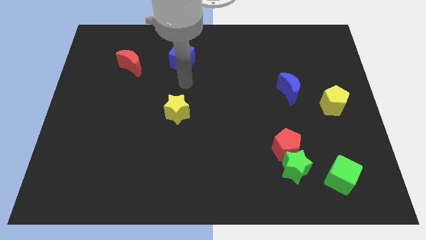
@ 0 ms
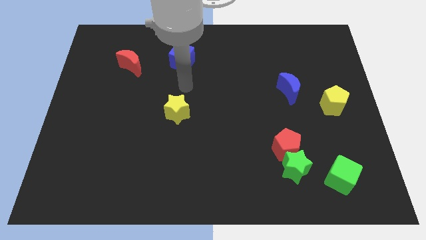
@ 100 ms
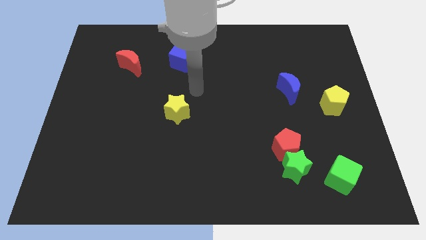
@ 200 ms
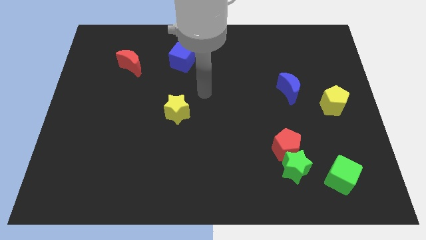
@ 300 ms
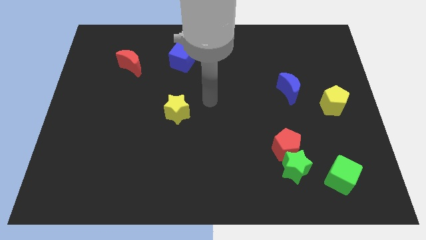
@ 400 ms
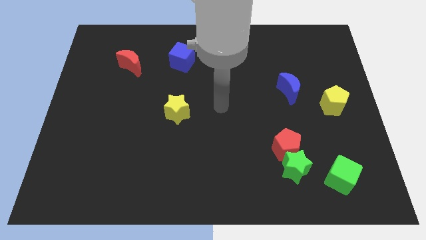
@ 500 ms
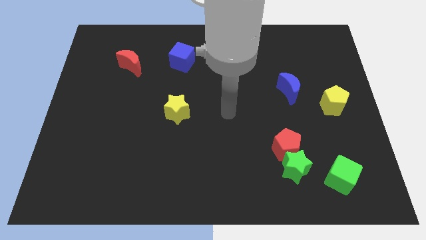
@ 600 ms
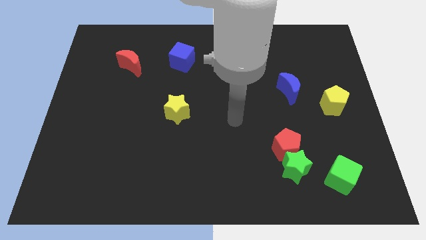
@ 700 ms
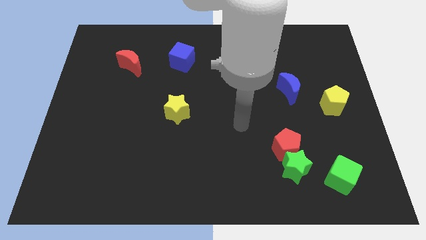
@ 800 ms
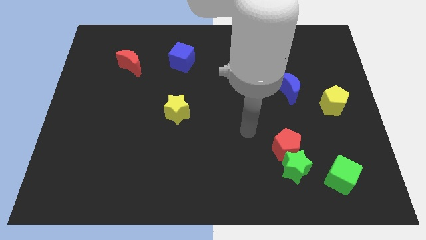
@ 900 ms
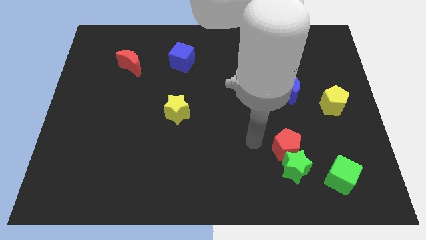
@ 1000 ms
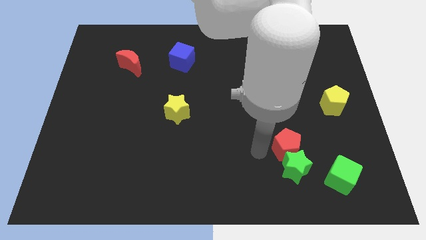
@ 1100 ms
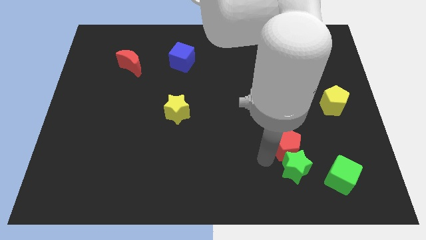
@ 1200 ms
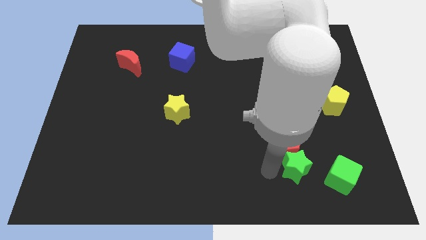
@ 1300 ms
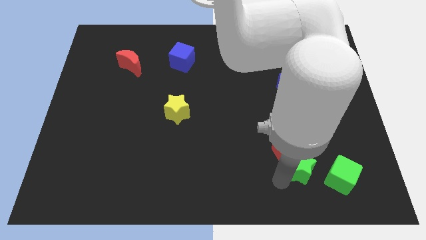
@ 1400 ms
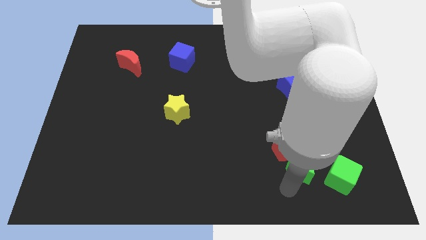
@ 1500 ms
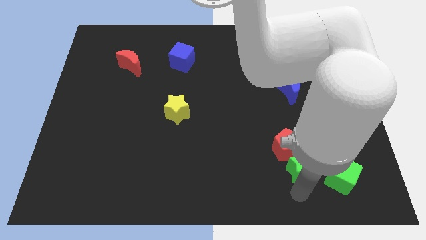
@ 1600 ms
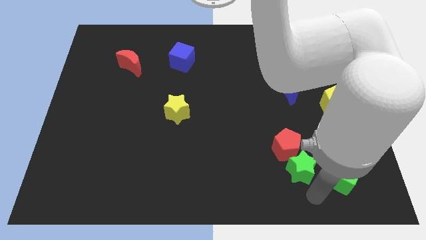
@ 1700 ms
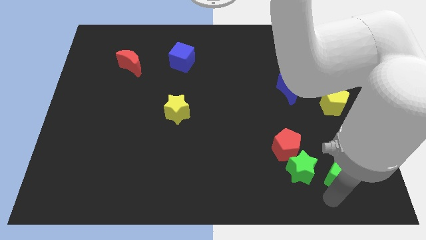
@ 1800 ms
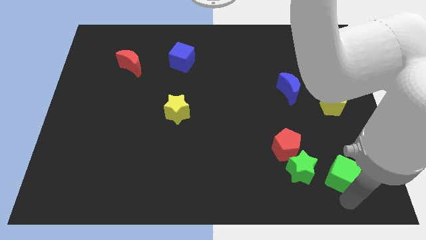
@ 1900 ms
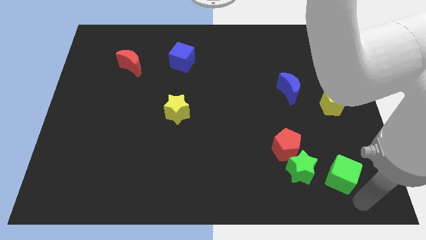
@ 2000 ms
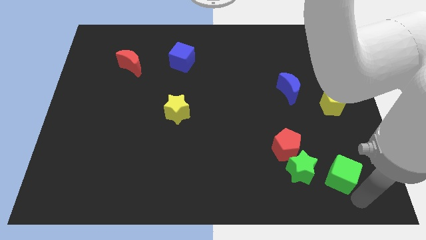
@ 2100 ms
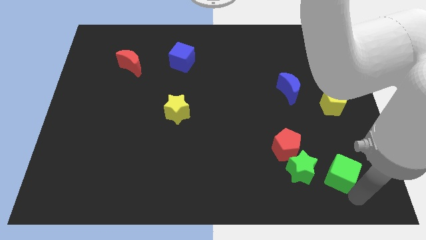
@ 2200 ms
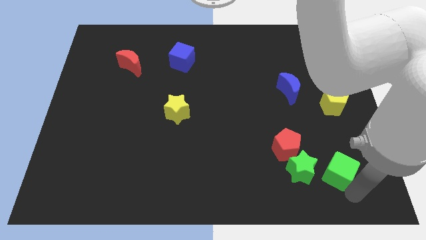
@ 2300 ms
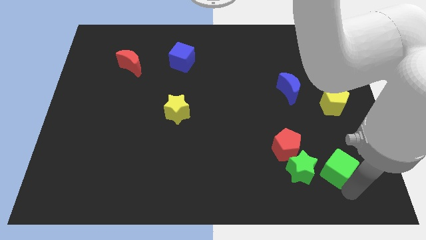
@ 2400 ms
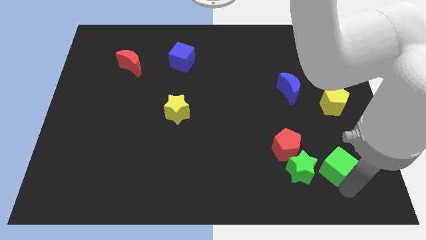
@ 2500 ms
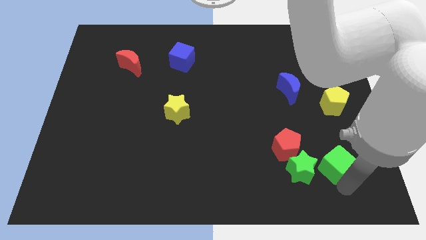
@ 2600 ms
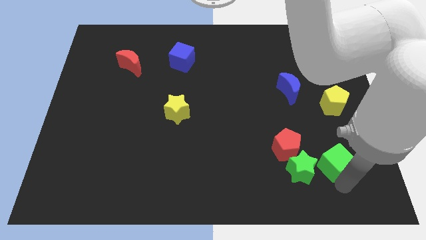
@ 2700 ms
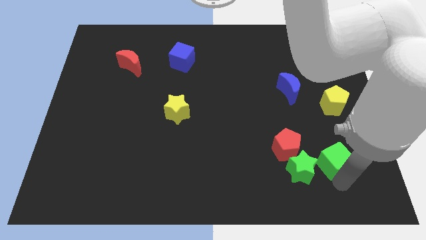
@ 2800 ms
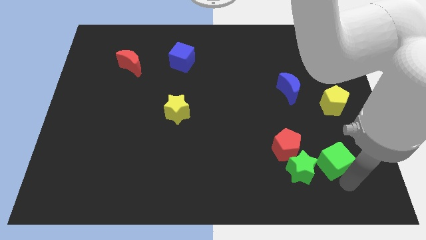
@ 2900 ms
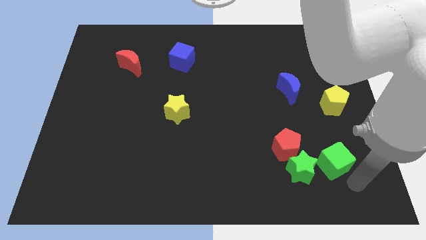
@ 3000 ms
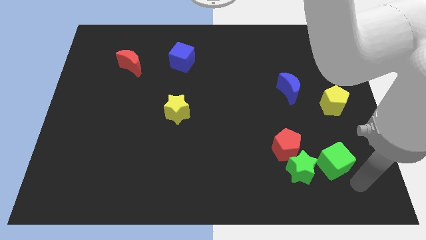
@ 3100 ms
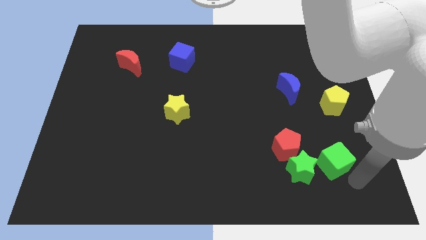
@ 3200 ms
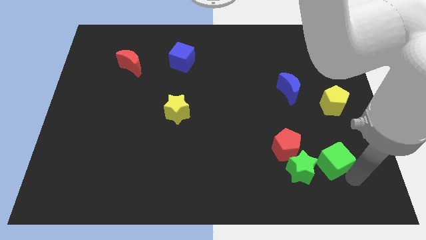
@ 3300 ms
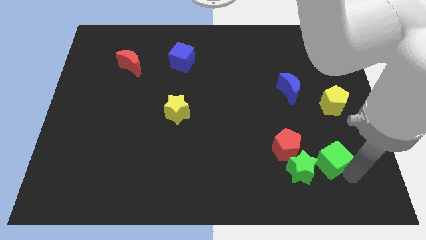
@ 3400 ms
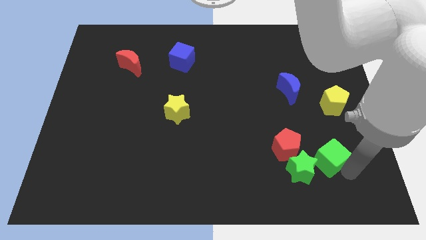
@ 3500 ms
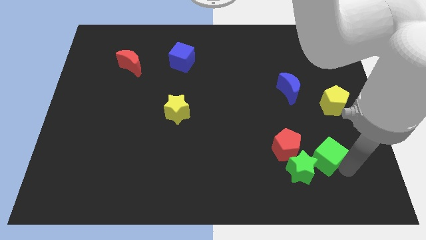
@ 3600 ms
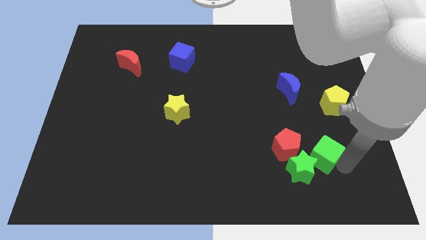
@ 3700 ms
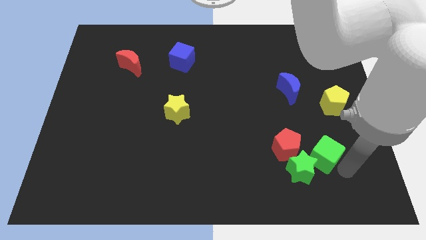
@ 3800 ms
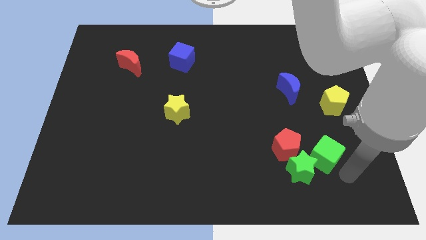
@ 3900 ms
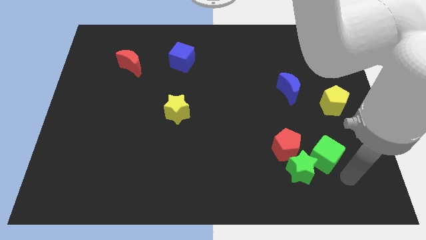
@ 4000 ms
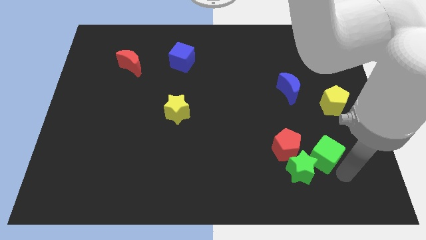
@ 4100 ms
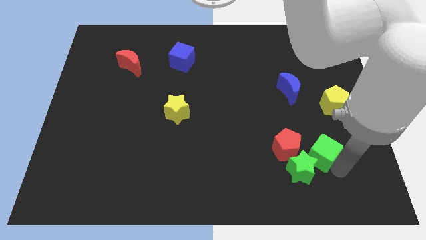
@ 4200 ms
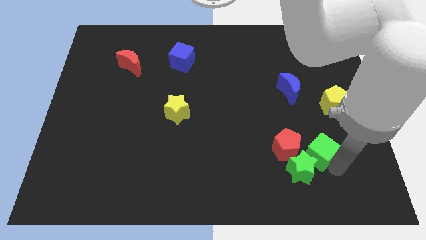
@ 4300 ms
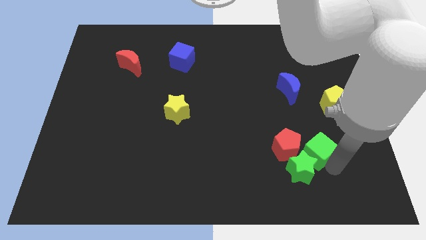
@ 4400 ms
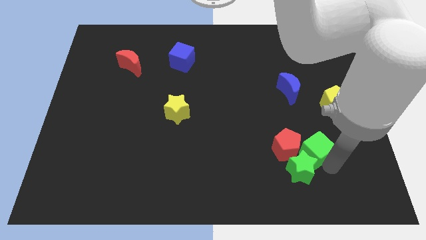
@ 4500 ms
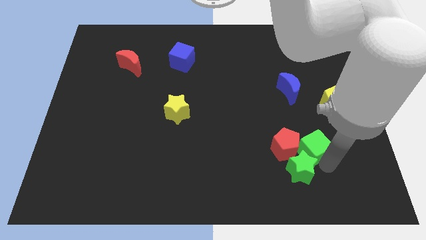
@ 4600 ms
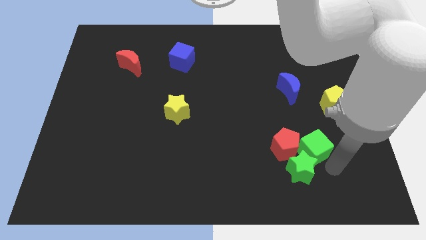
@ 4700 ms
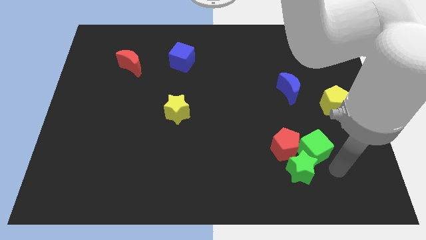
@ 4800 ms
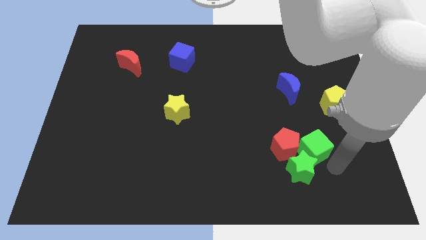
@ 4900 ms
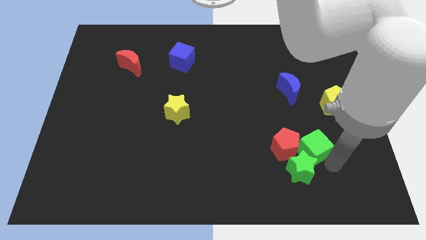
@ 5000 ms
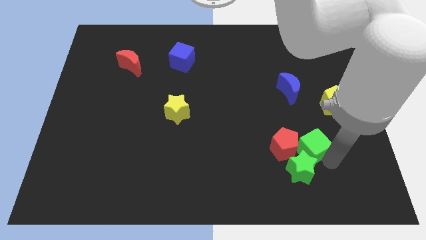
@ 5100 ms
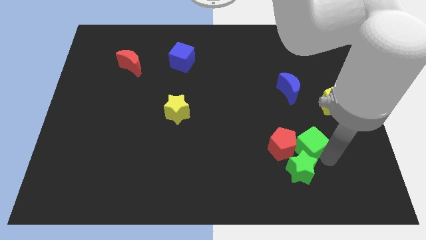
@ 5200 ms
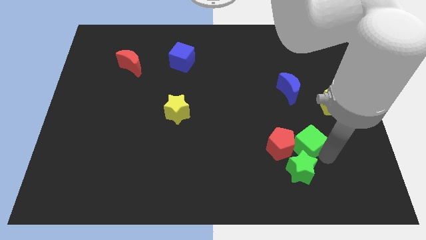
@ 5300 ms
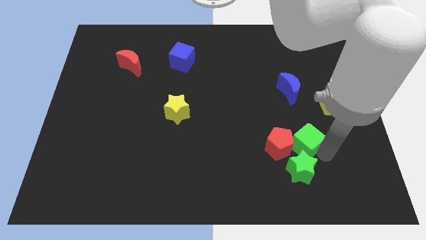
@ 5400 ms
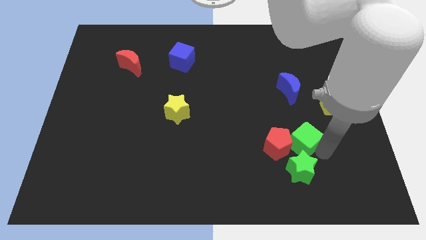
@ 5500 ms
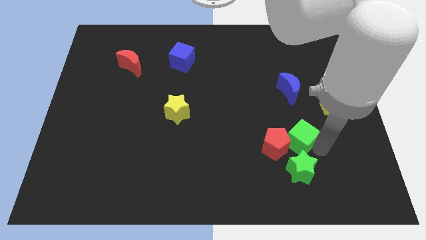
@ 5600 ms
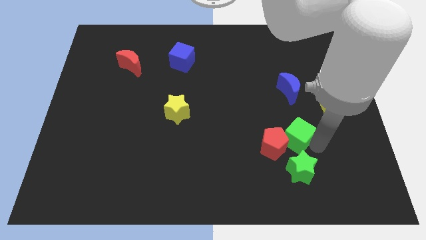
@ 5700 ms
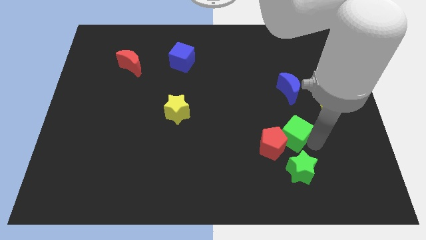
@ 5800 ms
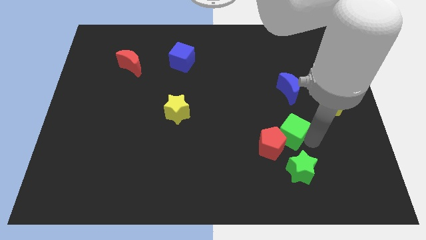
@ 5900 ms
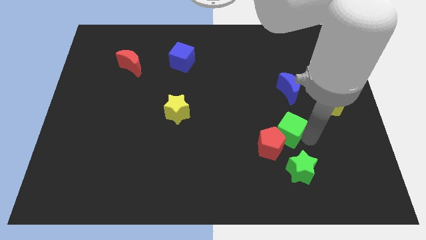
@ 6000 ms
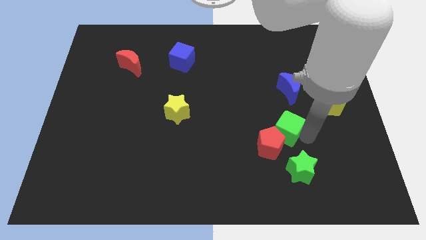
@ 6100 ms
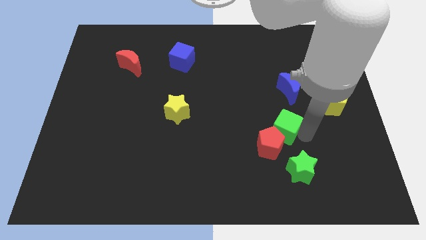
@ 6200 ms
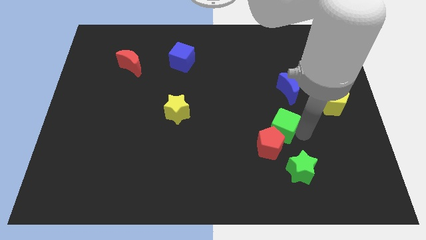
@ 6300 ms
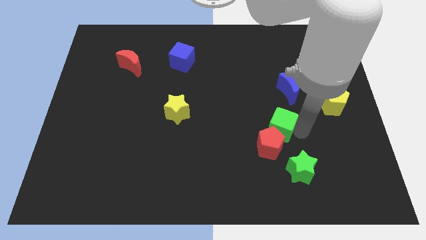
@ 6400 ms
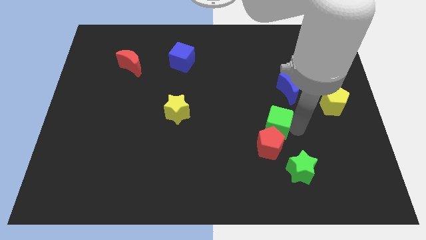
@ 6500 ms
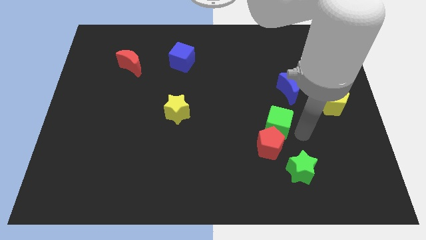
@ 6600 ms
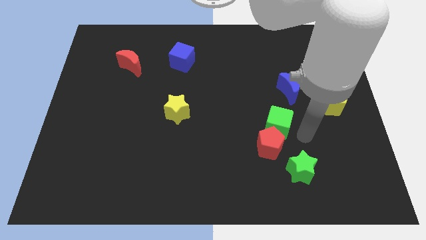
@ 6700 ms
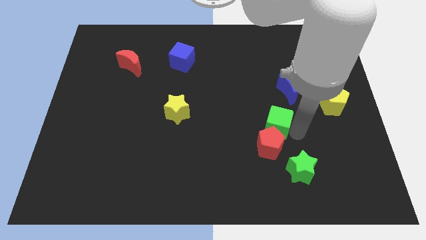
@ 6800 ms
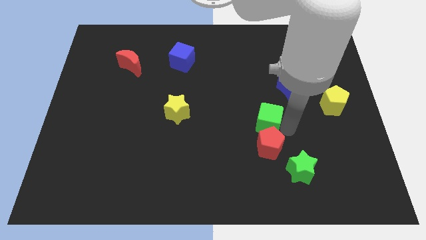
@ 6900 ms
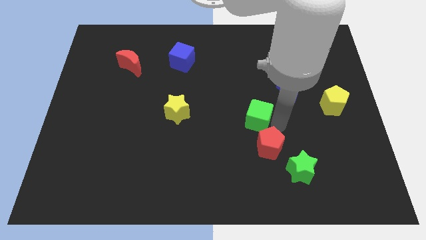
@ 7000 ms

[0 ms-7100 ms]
push the green cube to the middle

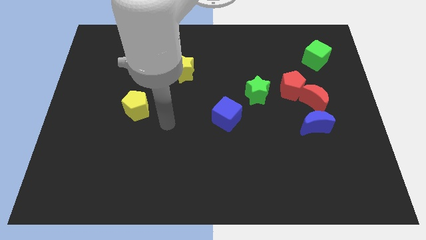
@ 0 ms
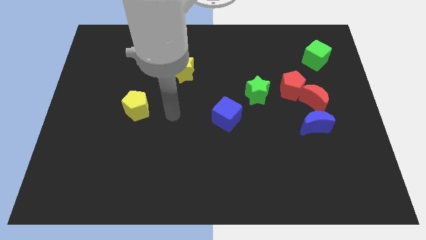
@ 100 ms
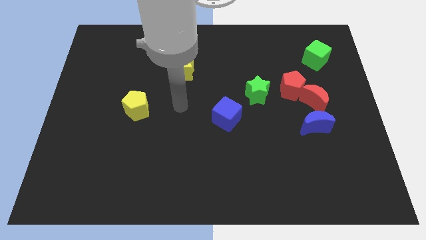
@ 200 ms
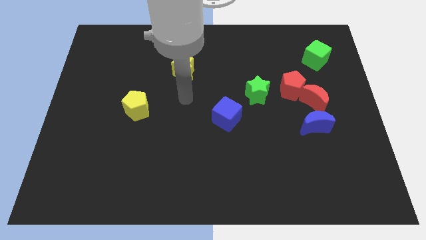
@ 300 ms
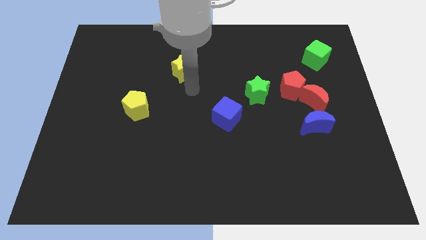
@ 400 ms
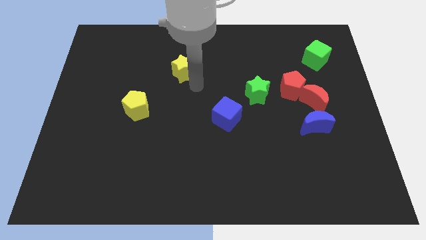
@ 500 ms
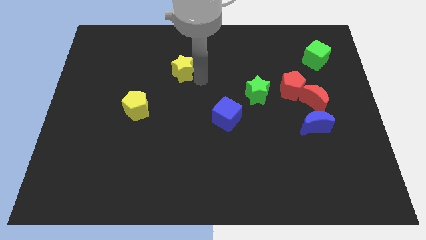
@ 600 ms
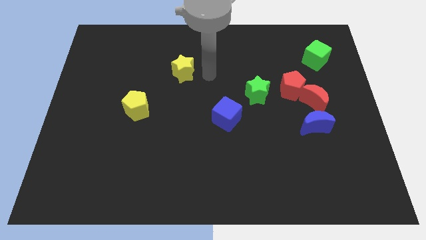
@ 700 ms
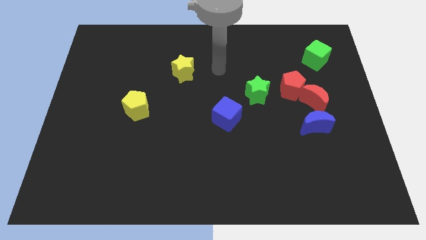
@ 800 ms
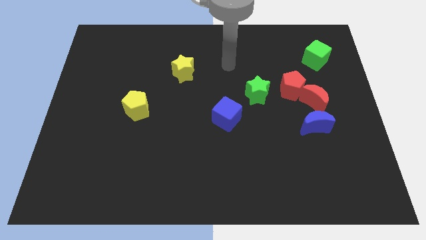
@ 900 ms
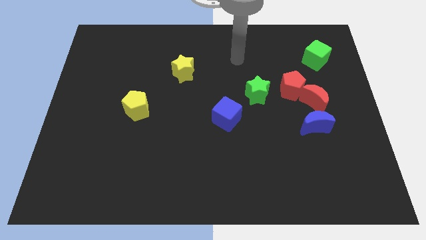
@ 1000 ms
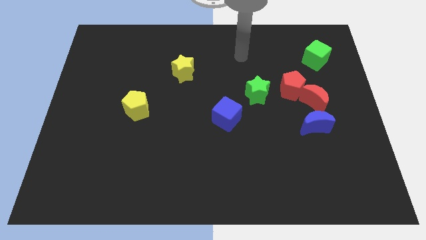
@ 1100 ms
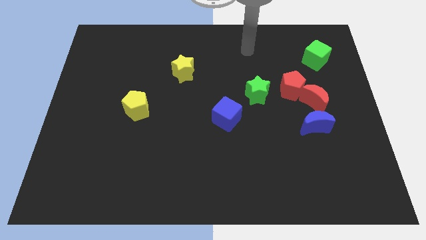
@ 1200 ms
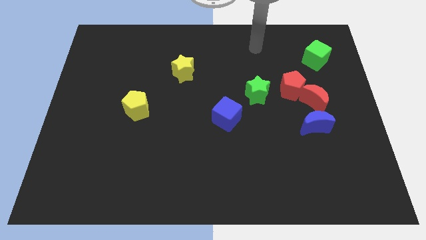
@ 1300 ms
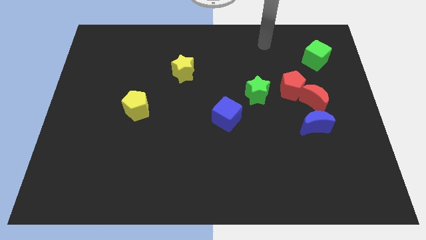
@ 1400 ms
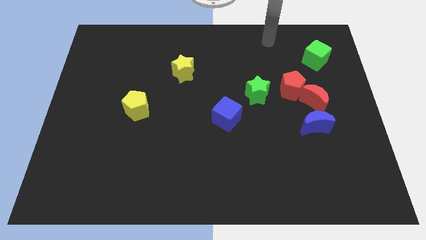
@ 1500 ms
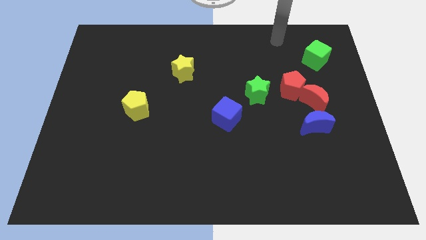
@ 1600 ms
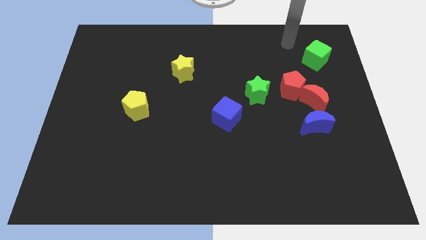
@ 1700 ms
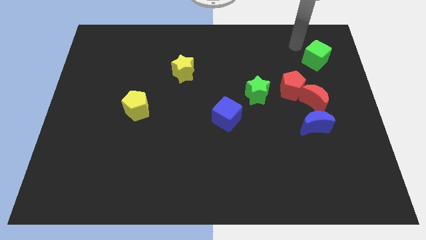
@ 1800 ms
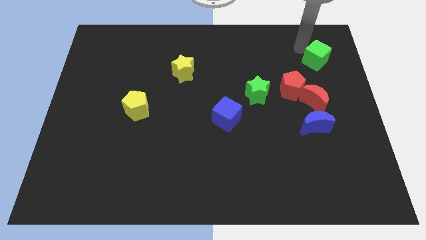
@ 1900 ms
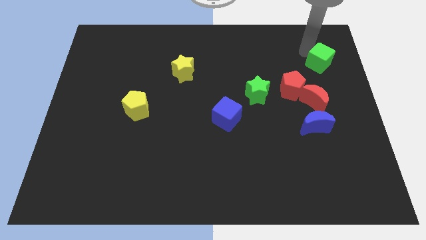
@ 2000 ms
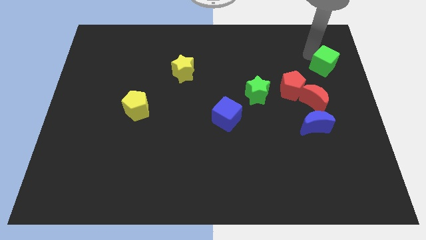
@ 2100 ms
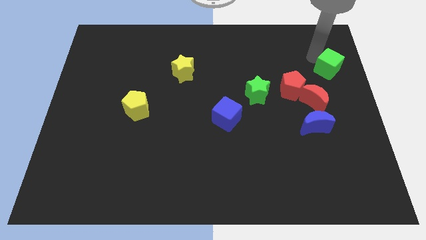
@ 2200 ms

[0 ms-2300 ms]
slide the green cube to the right side
